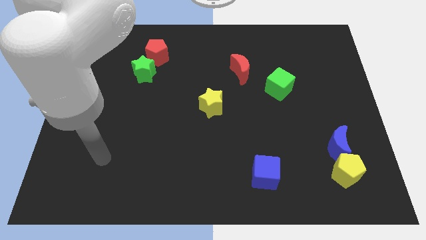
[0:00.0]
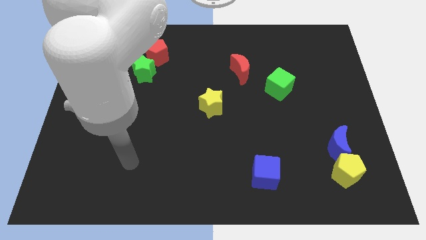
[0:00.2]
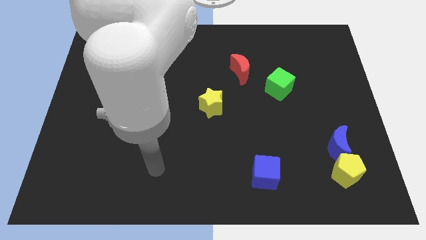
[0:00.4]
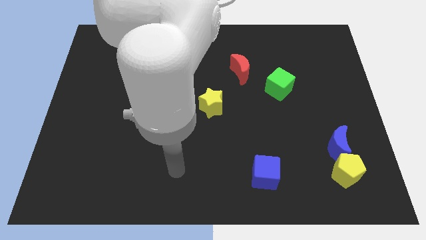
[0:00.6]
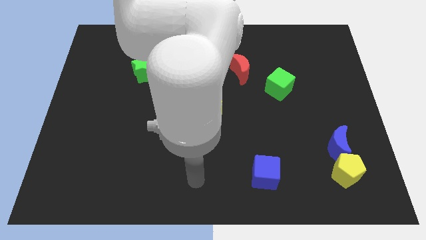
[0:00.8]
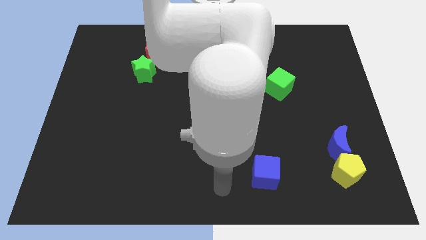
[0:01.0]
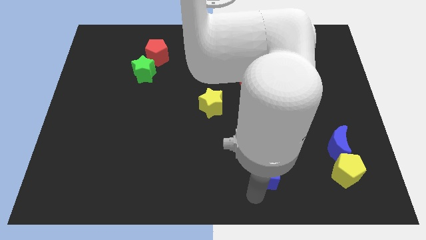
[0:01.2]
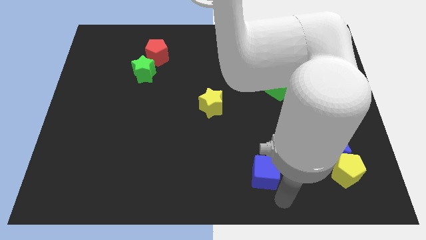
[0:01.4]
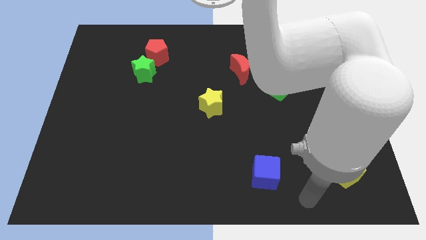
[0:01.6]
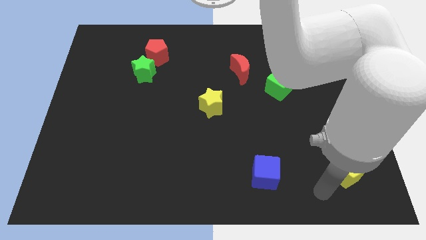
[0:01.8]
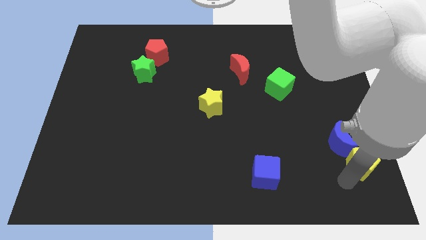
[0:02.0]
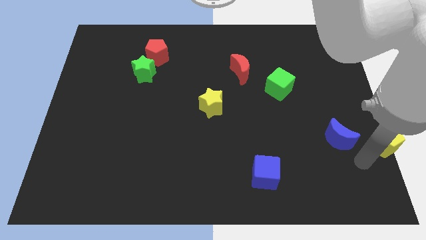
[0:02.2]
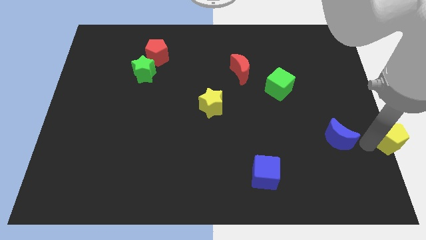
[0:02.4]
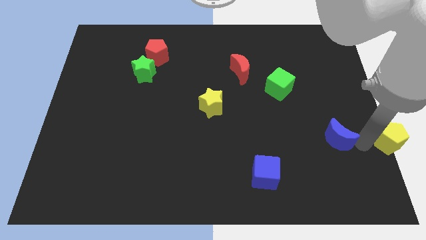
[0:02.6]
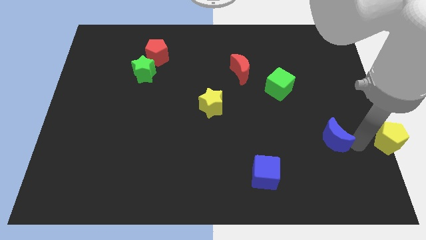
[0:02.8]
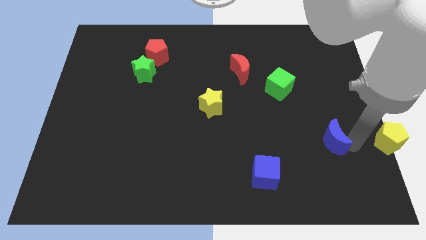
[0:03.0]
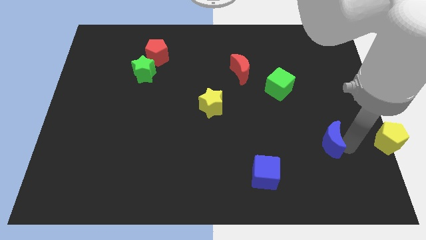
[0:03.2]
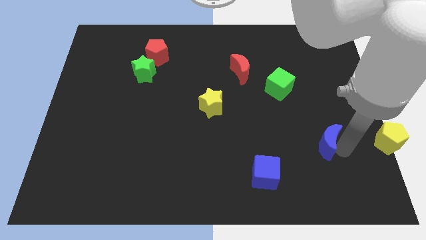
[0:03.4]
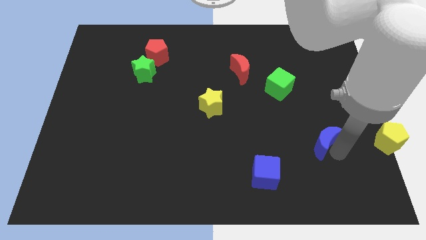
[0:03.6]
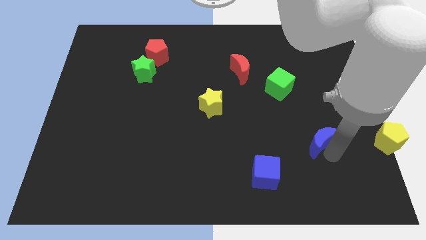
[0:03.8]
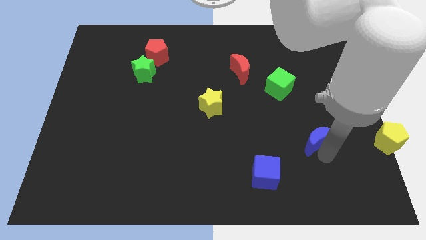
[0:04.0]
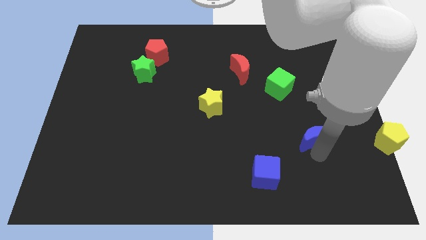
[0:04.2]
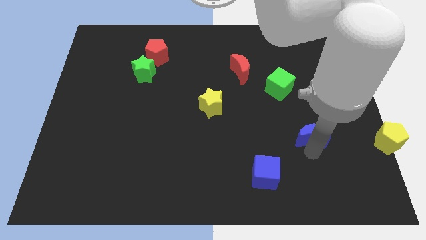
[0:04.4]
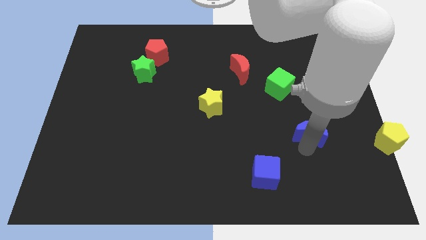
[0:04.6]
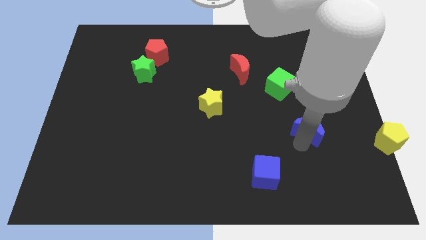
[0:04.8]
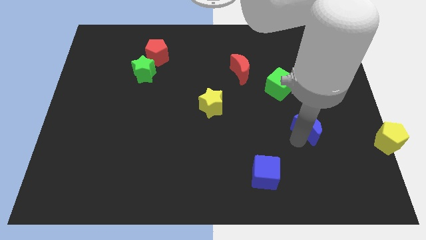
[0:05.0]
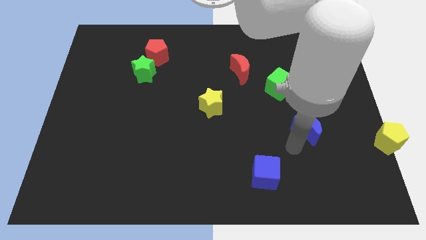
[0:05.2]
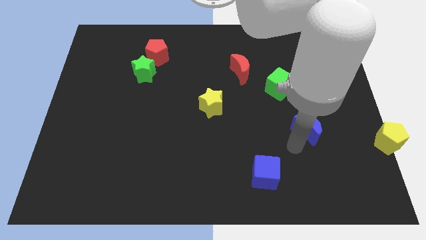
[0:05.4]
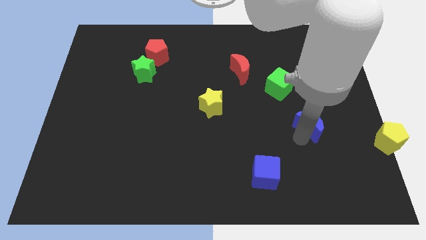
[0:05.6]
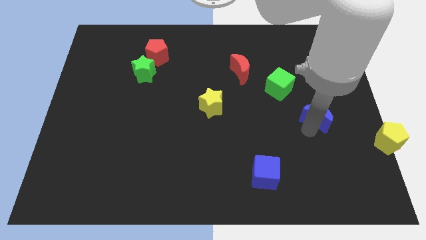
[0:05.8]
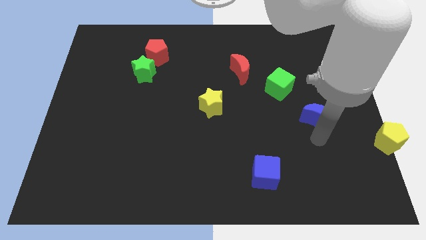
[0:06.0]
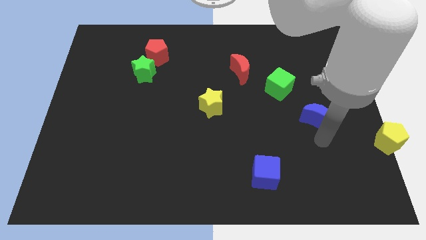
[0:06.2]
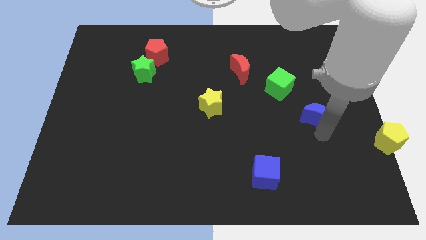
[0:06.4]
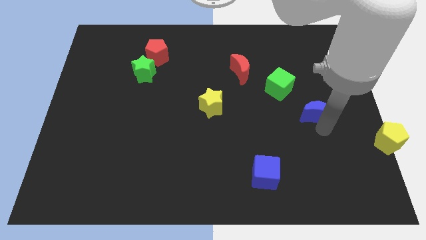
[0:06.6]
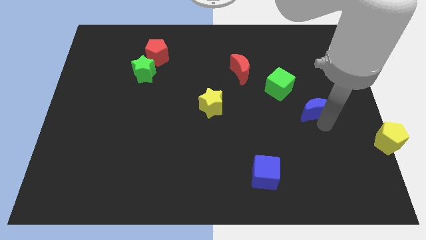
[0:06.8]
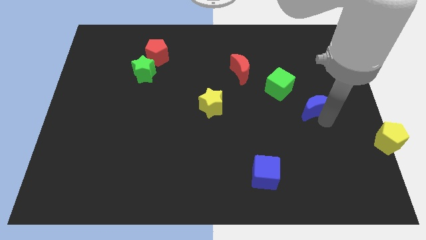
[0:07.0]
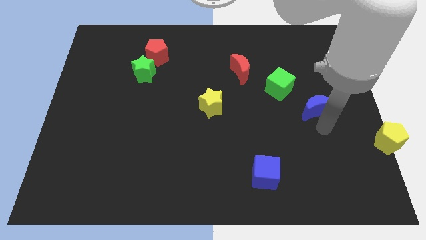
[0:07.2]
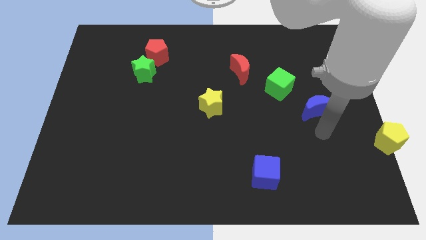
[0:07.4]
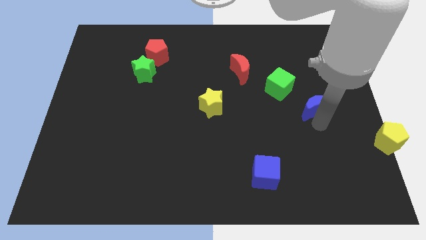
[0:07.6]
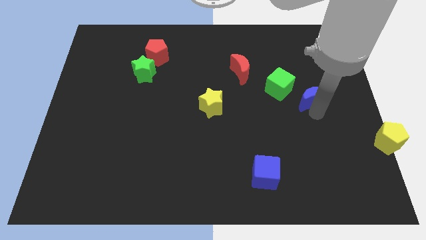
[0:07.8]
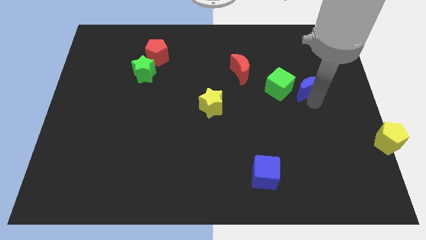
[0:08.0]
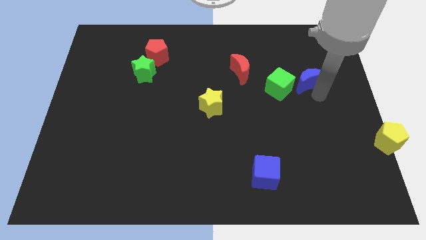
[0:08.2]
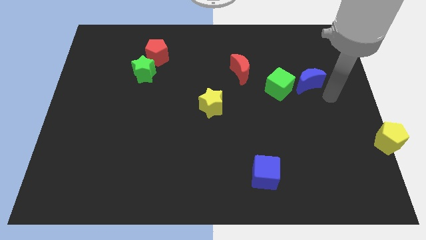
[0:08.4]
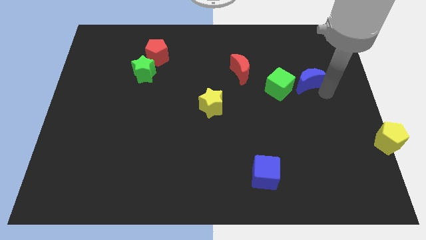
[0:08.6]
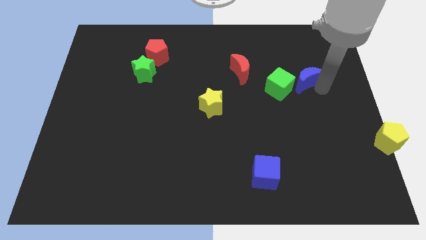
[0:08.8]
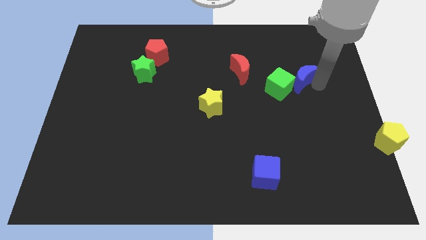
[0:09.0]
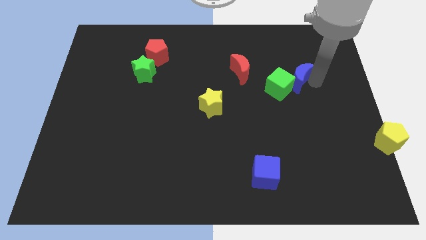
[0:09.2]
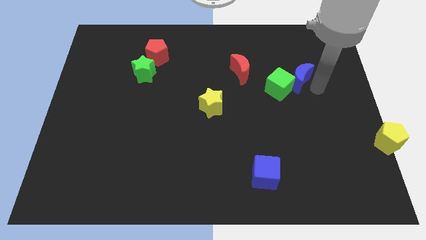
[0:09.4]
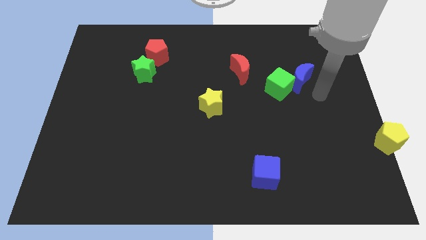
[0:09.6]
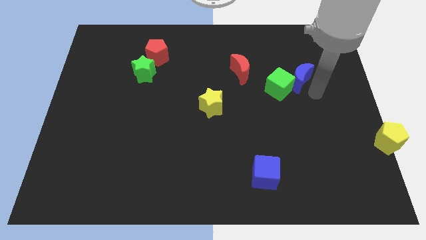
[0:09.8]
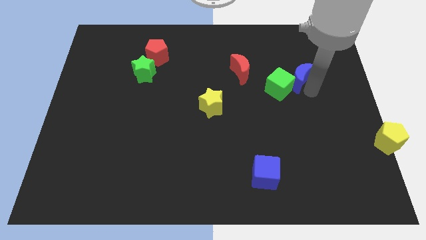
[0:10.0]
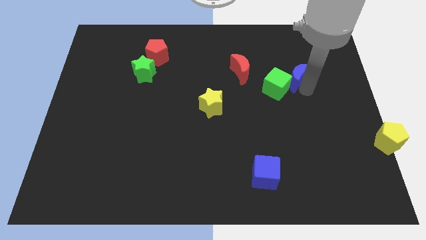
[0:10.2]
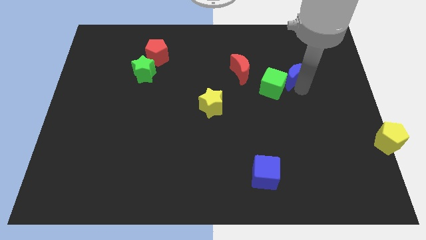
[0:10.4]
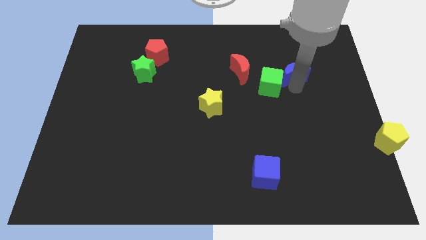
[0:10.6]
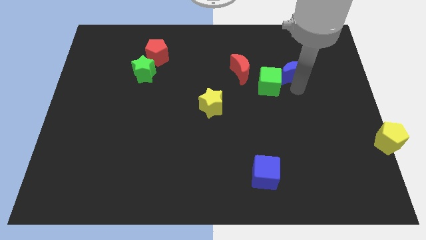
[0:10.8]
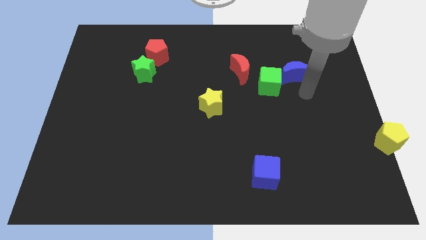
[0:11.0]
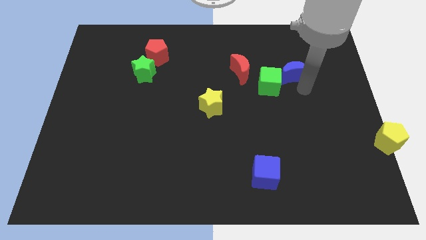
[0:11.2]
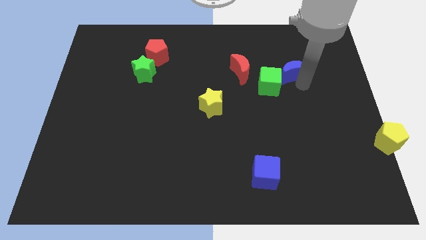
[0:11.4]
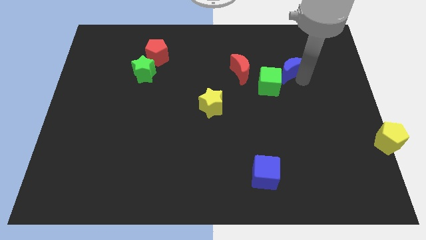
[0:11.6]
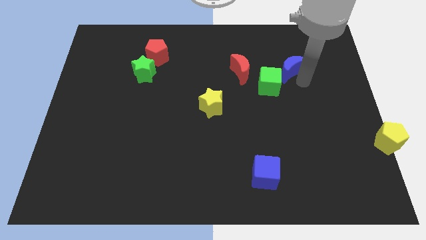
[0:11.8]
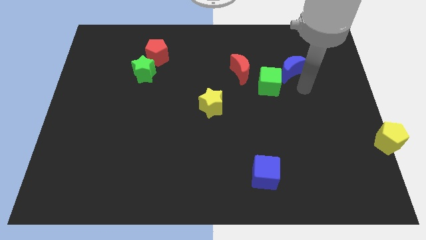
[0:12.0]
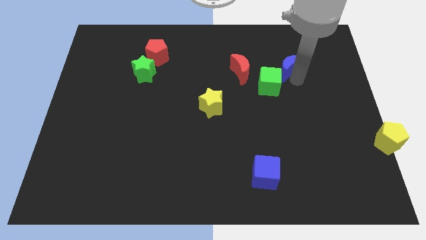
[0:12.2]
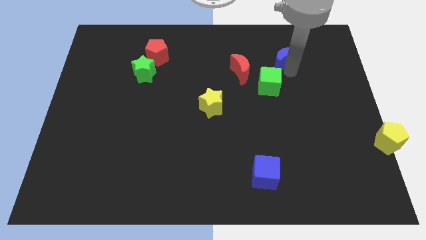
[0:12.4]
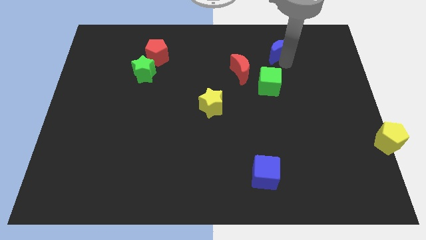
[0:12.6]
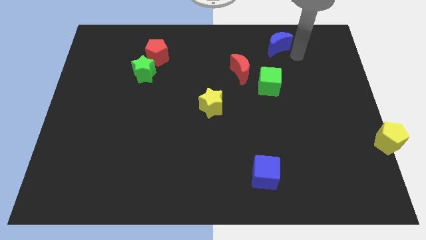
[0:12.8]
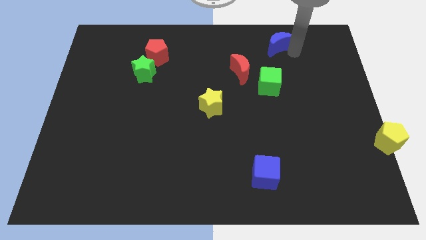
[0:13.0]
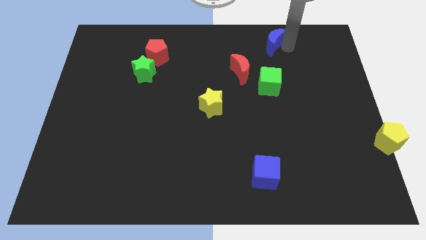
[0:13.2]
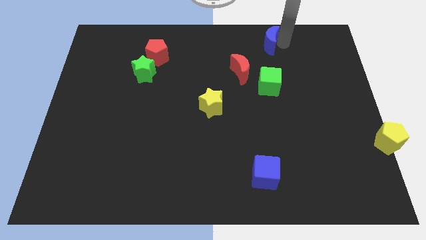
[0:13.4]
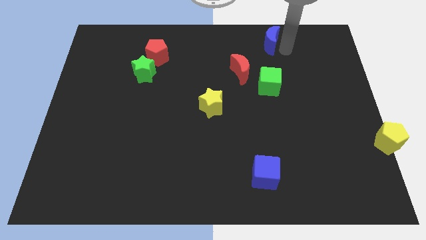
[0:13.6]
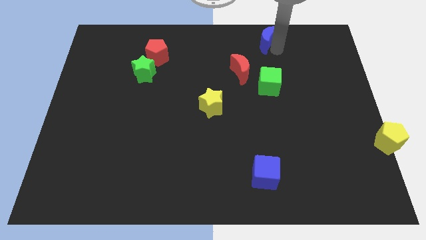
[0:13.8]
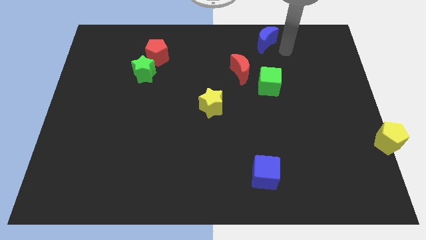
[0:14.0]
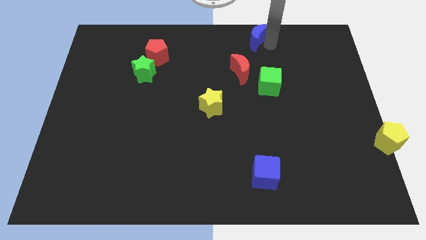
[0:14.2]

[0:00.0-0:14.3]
push the blue moon to the towards your base
